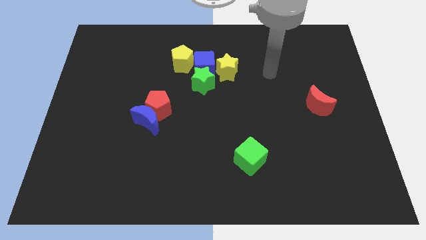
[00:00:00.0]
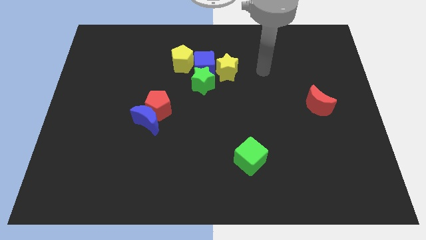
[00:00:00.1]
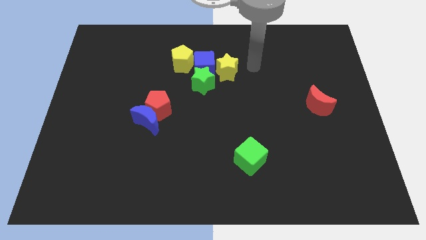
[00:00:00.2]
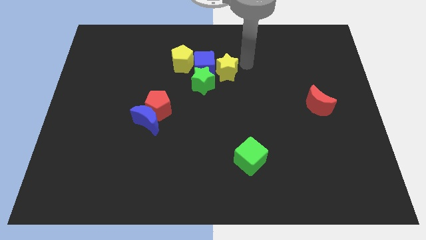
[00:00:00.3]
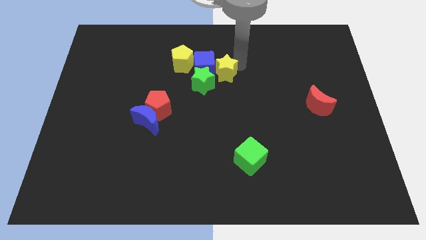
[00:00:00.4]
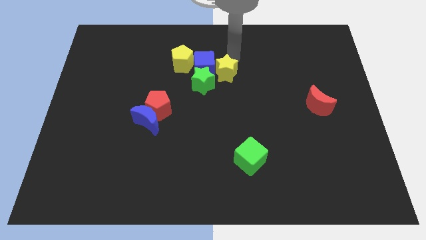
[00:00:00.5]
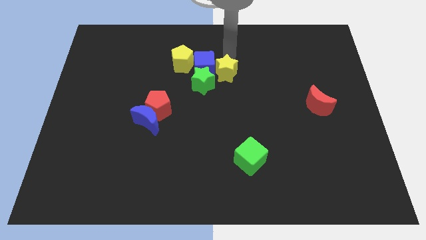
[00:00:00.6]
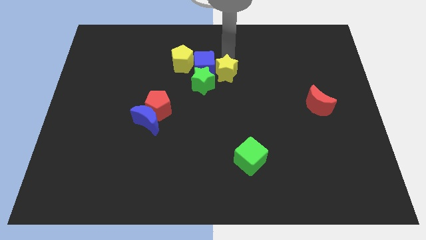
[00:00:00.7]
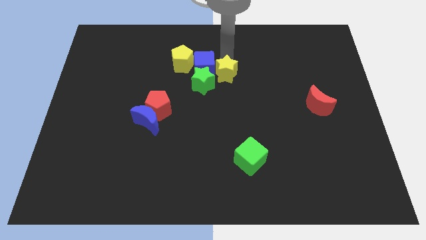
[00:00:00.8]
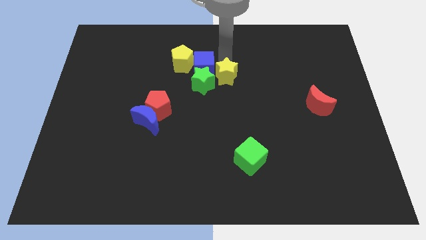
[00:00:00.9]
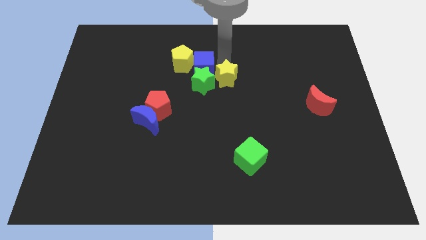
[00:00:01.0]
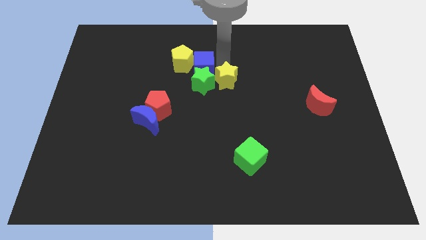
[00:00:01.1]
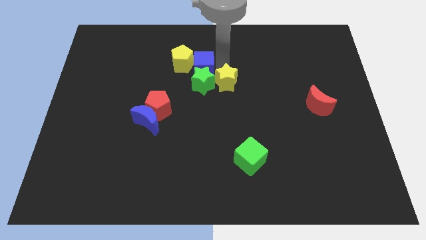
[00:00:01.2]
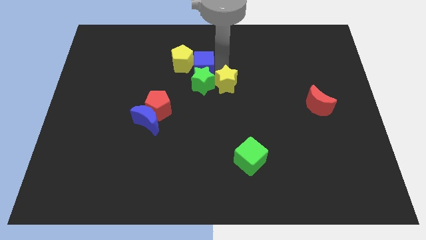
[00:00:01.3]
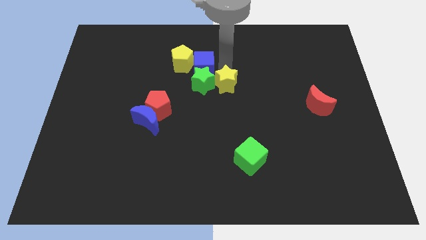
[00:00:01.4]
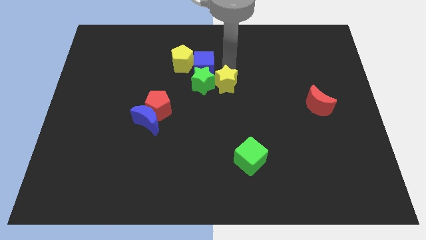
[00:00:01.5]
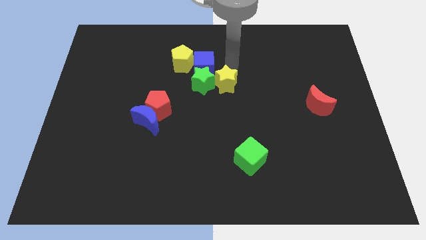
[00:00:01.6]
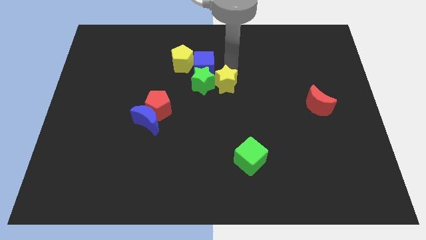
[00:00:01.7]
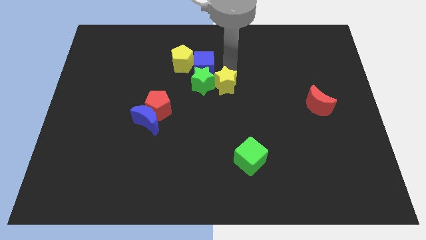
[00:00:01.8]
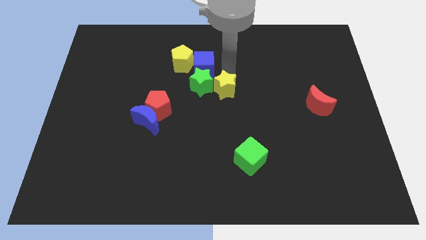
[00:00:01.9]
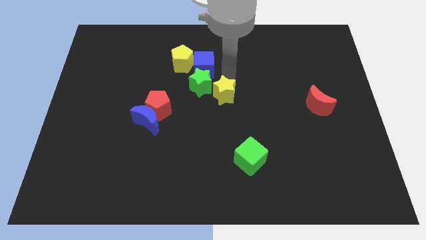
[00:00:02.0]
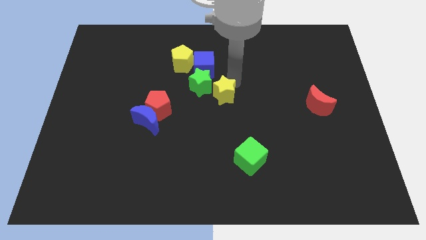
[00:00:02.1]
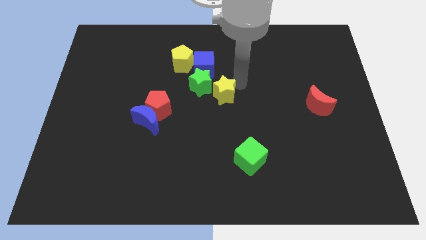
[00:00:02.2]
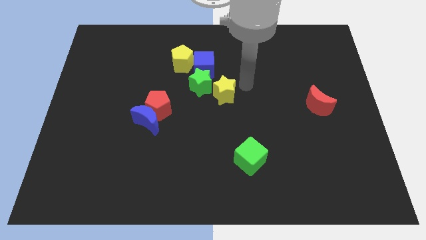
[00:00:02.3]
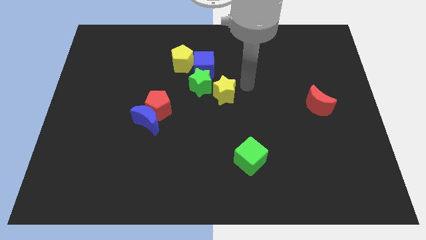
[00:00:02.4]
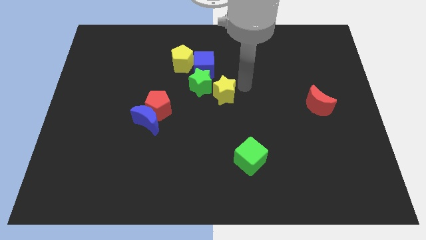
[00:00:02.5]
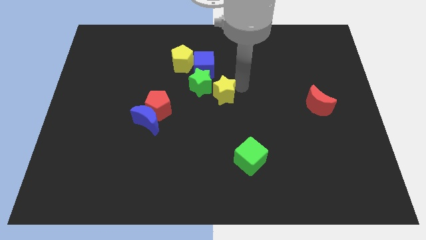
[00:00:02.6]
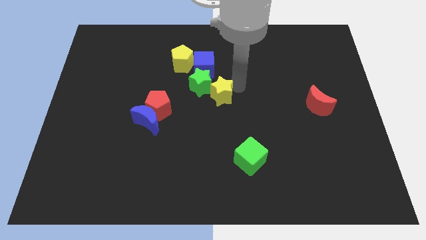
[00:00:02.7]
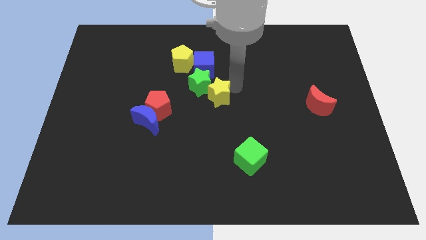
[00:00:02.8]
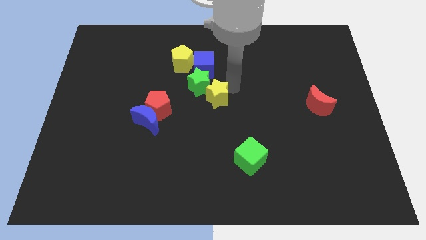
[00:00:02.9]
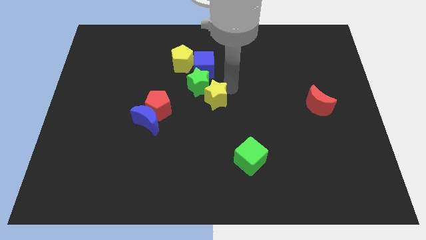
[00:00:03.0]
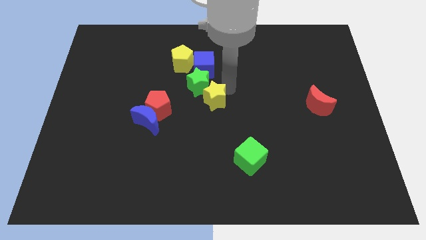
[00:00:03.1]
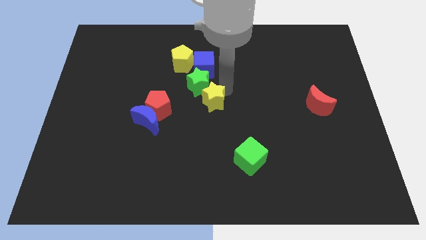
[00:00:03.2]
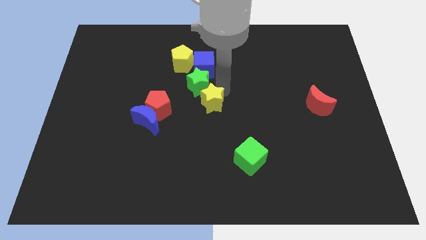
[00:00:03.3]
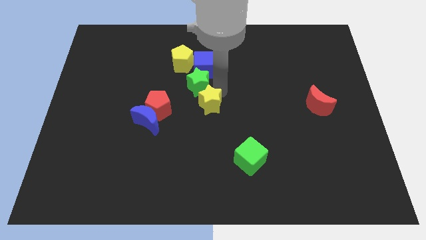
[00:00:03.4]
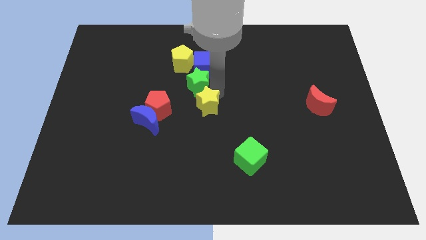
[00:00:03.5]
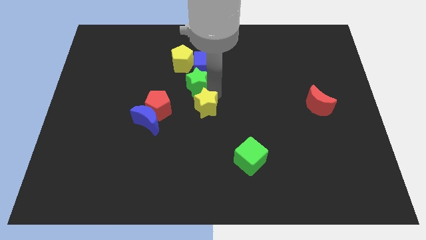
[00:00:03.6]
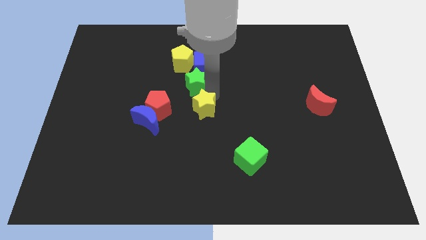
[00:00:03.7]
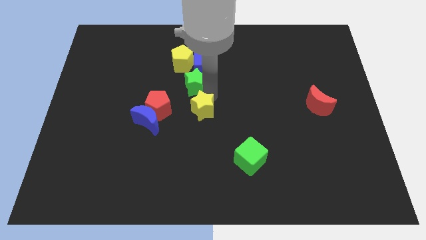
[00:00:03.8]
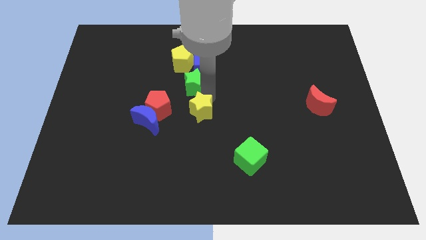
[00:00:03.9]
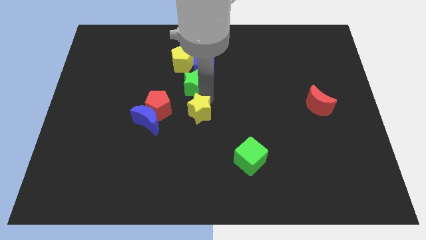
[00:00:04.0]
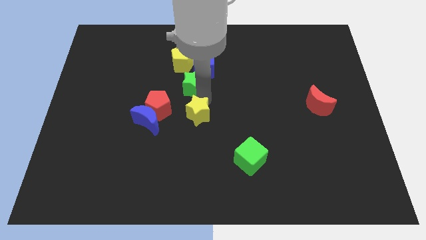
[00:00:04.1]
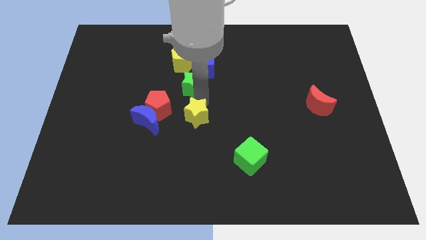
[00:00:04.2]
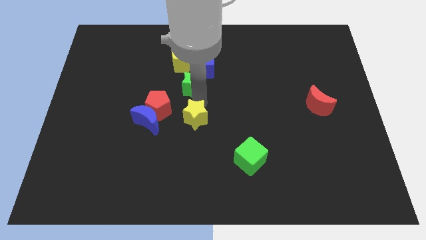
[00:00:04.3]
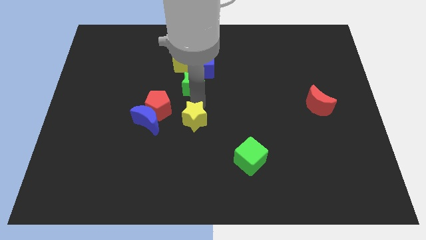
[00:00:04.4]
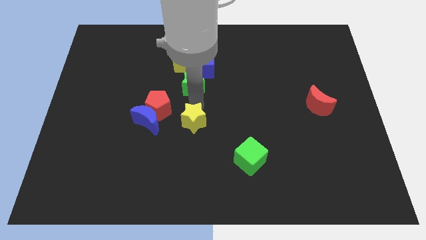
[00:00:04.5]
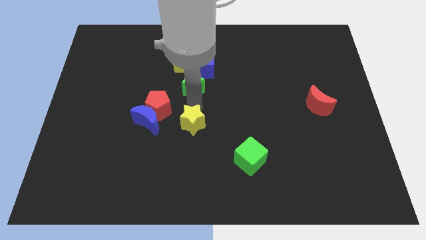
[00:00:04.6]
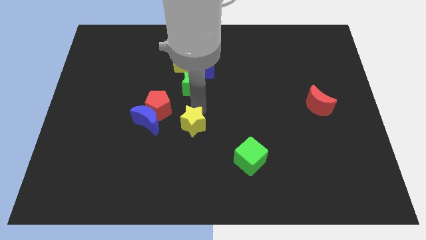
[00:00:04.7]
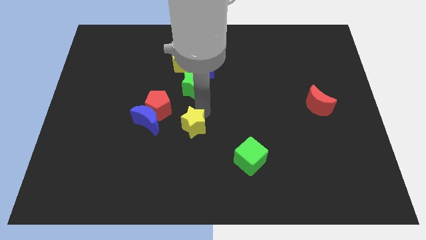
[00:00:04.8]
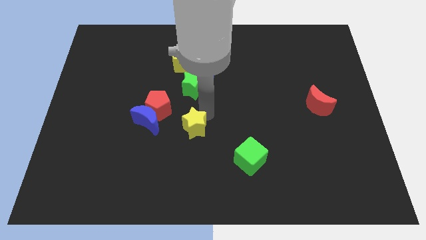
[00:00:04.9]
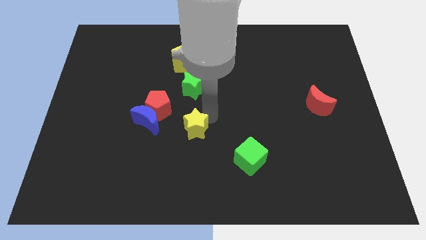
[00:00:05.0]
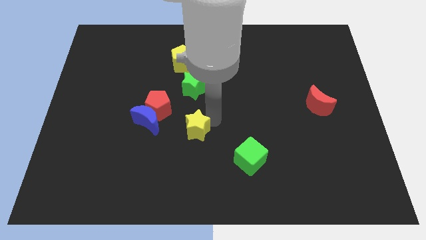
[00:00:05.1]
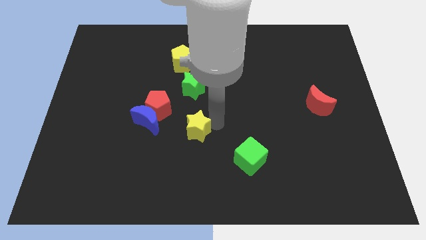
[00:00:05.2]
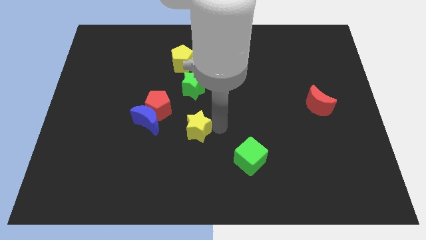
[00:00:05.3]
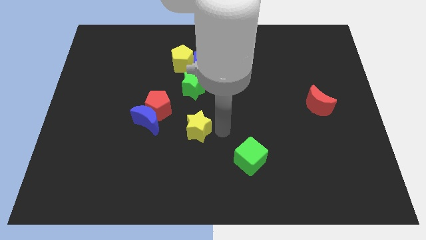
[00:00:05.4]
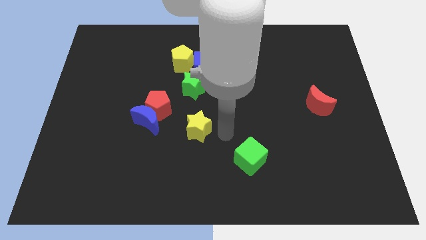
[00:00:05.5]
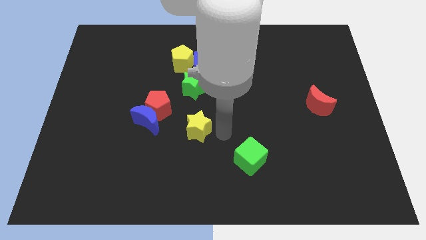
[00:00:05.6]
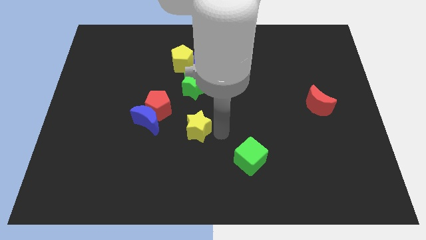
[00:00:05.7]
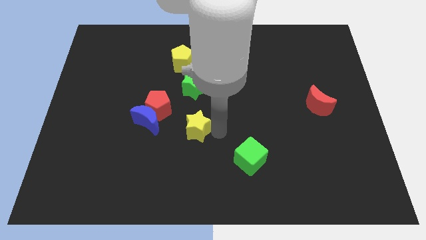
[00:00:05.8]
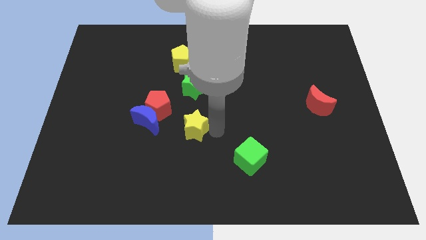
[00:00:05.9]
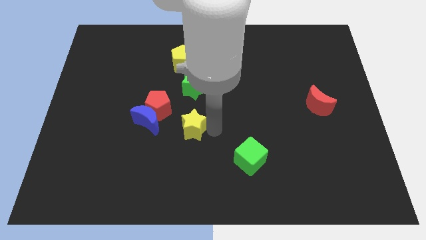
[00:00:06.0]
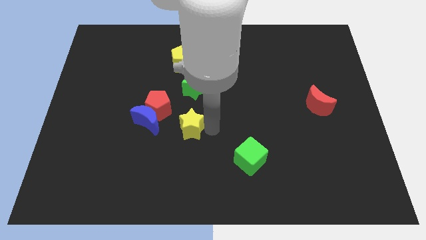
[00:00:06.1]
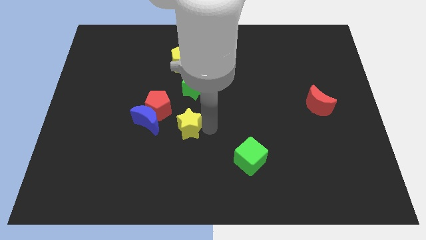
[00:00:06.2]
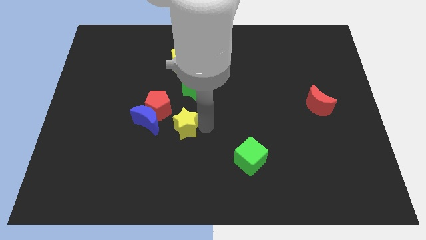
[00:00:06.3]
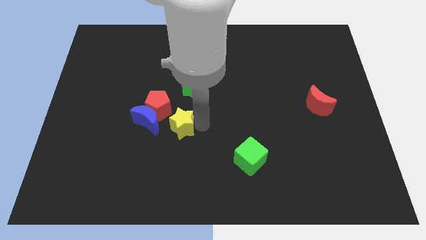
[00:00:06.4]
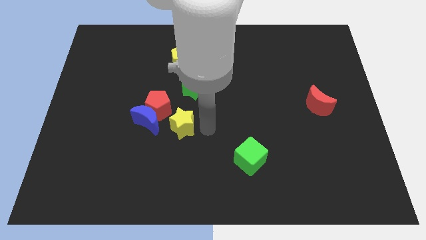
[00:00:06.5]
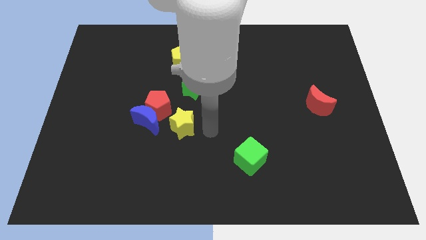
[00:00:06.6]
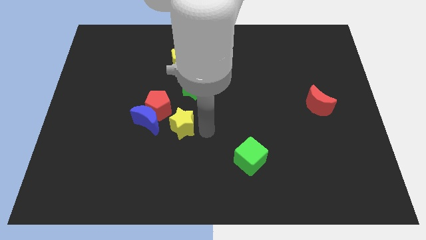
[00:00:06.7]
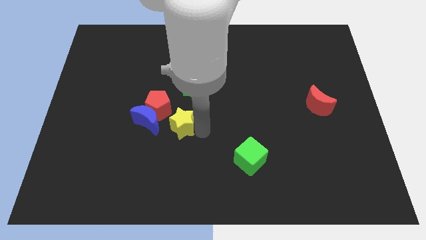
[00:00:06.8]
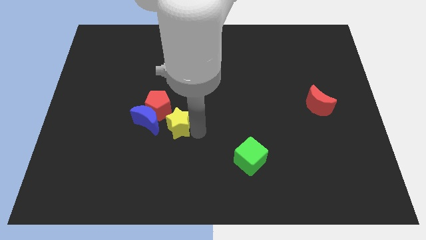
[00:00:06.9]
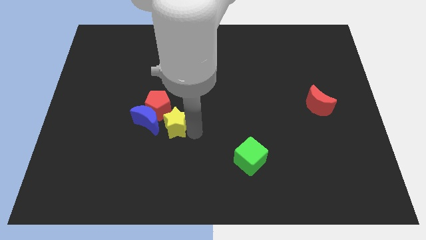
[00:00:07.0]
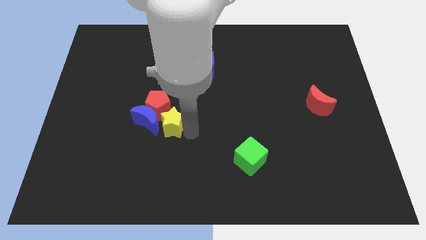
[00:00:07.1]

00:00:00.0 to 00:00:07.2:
move the yellow star towards the blue moon
